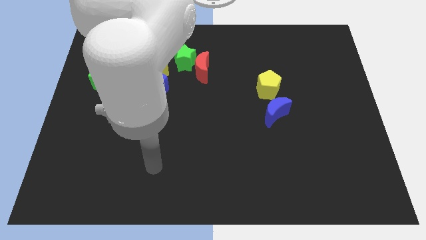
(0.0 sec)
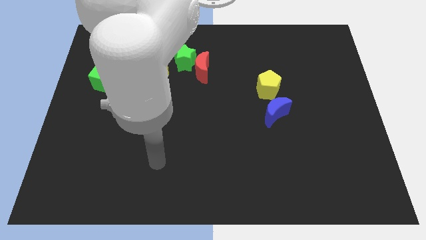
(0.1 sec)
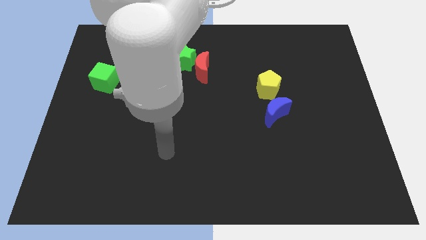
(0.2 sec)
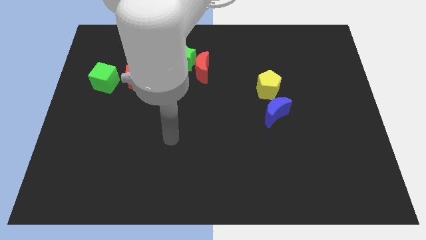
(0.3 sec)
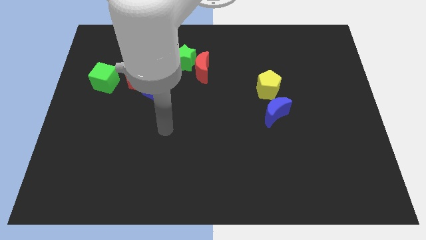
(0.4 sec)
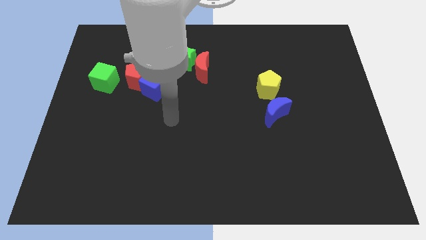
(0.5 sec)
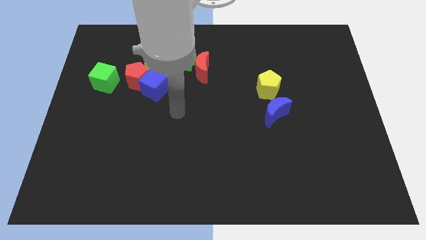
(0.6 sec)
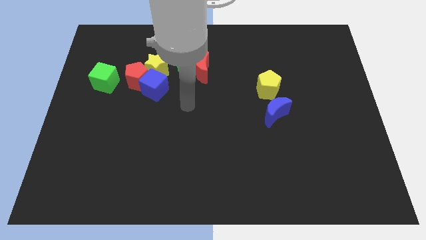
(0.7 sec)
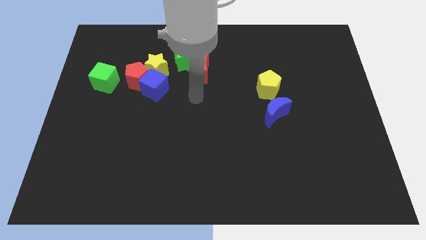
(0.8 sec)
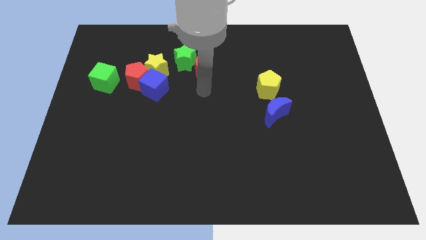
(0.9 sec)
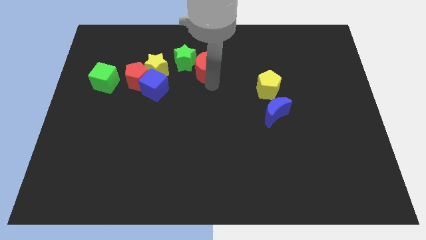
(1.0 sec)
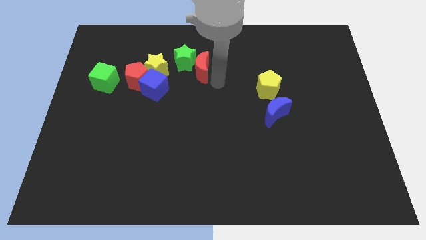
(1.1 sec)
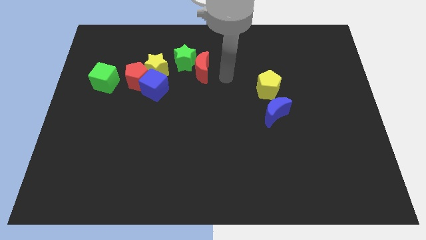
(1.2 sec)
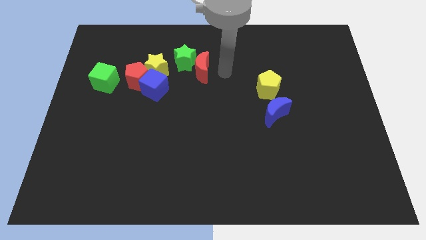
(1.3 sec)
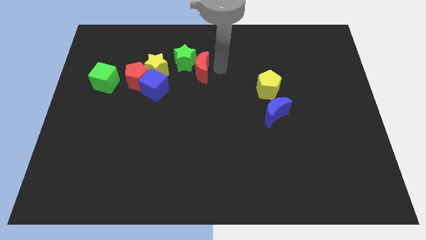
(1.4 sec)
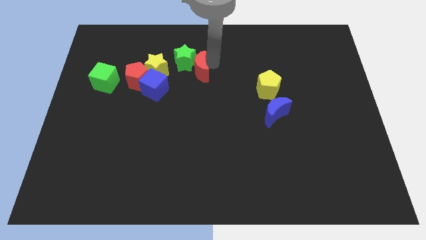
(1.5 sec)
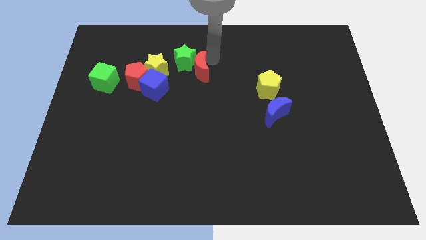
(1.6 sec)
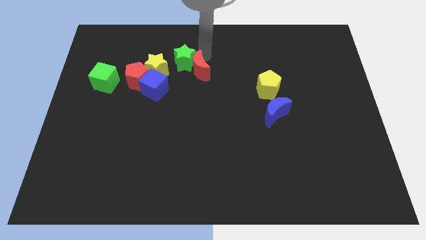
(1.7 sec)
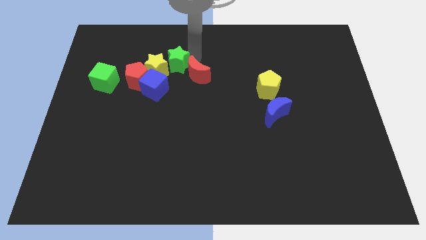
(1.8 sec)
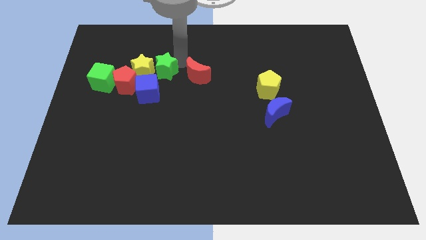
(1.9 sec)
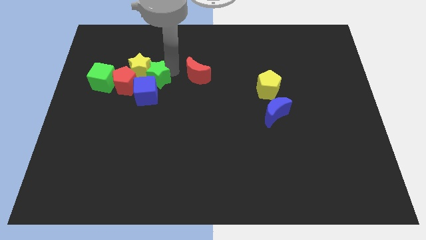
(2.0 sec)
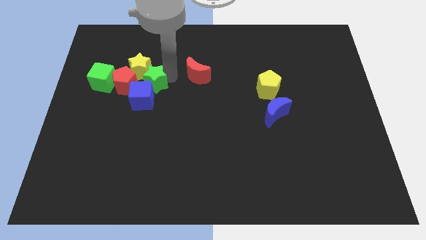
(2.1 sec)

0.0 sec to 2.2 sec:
separate the red moon from the green star

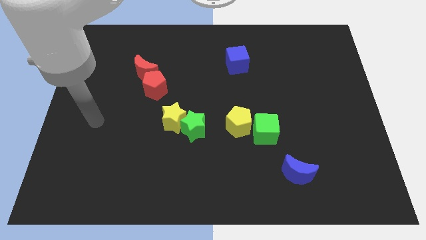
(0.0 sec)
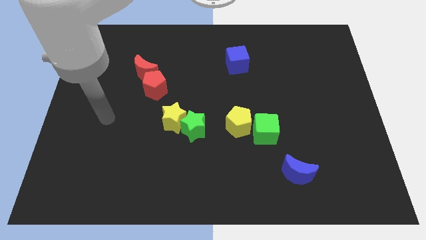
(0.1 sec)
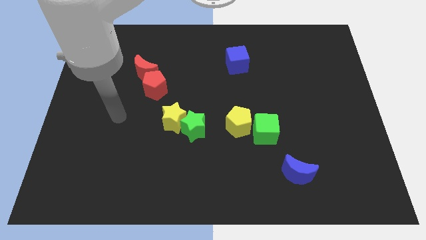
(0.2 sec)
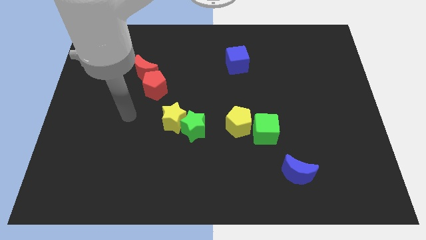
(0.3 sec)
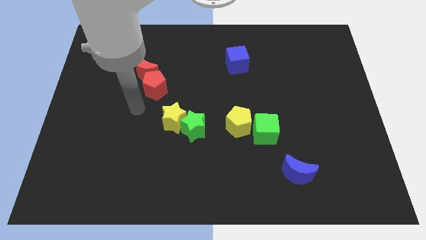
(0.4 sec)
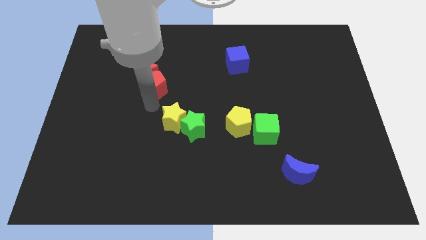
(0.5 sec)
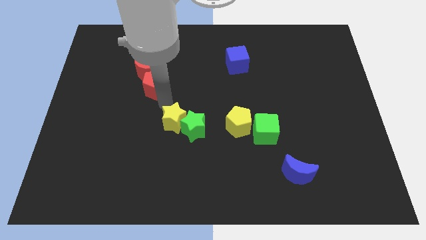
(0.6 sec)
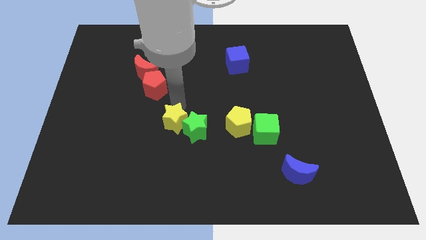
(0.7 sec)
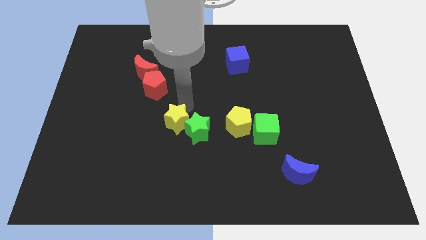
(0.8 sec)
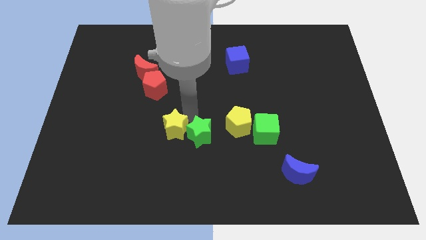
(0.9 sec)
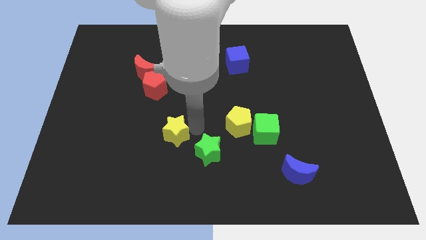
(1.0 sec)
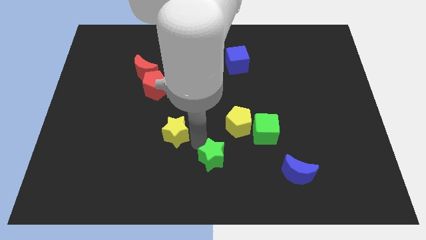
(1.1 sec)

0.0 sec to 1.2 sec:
pull the yellow star apart from the green star

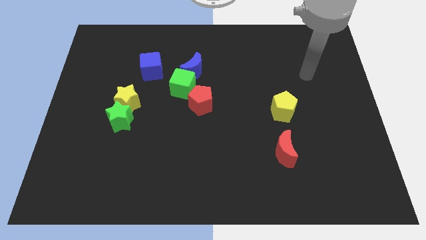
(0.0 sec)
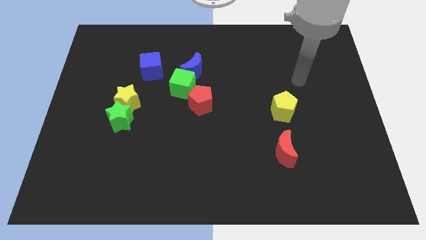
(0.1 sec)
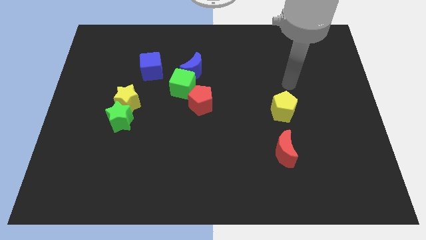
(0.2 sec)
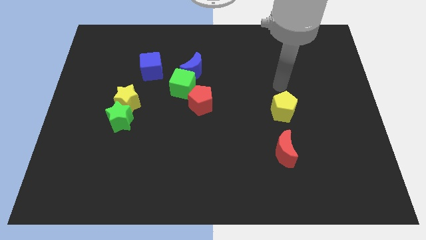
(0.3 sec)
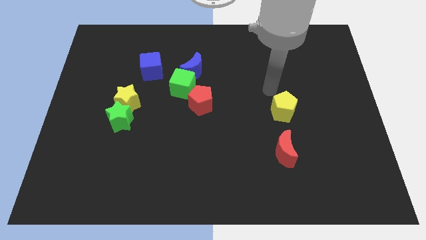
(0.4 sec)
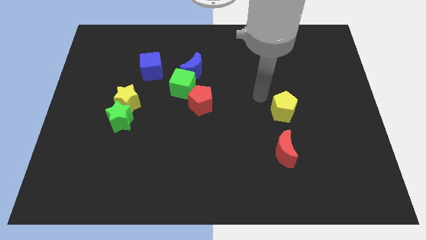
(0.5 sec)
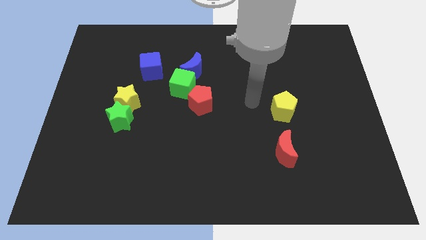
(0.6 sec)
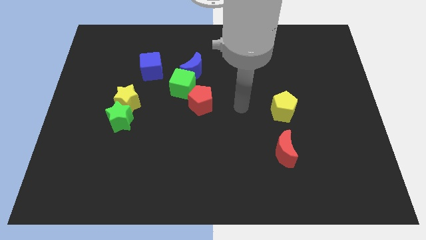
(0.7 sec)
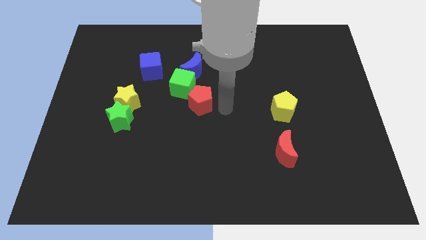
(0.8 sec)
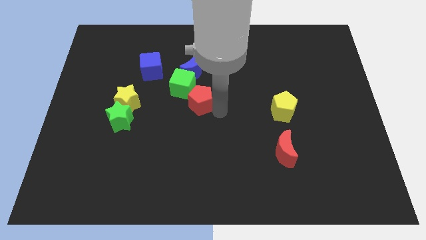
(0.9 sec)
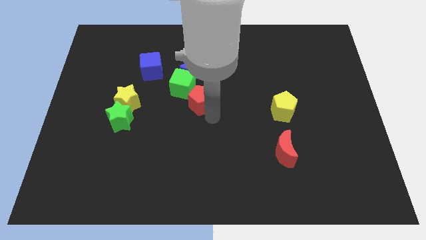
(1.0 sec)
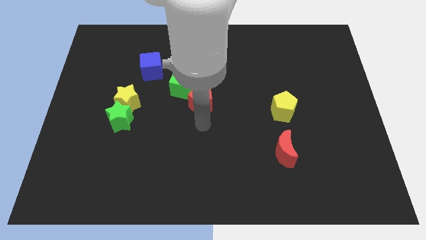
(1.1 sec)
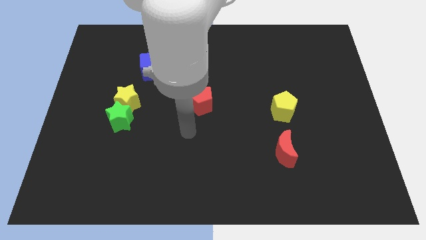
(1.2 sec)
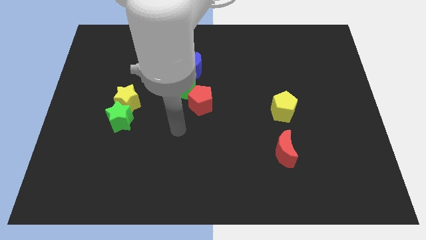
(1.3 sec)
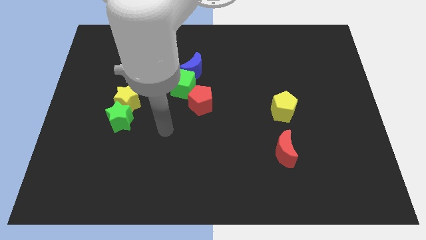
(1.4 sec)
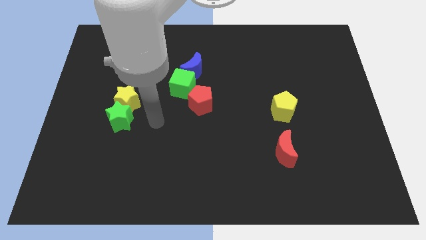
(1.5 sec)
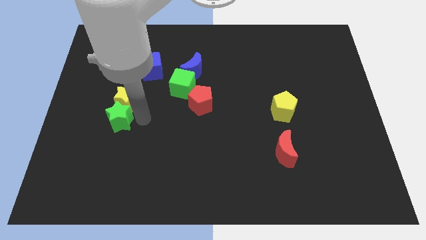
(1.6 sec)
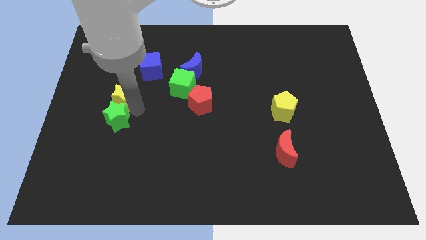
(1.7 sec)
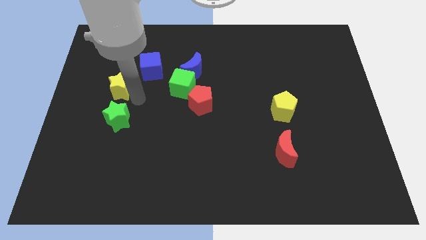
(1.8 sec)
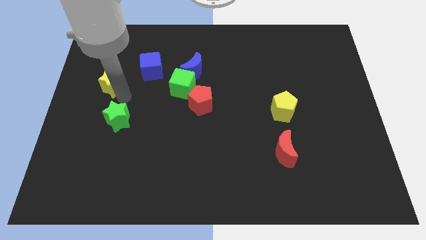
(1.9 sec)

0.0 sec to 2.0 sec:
pull the green star apart from the yellow star

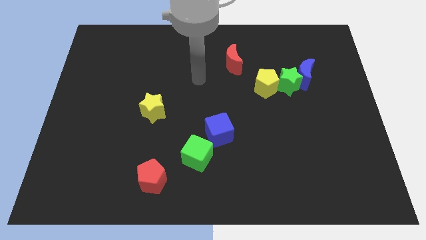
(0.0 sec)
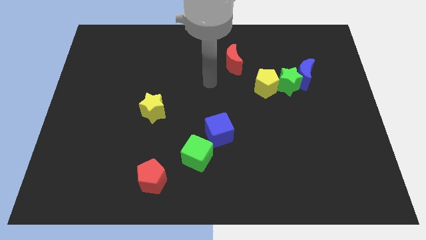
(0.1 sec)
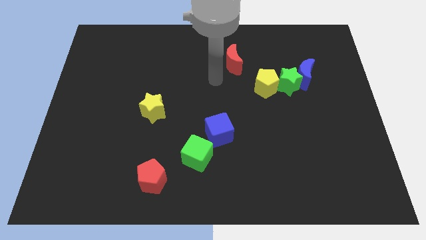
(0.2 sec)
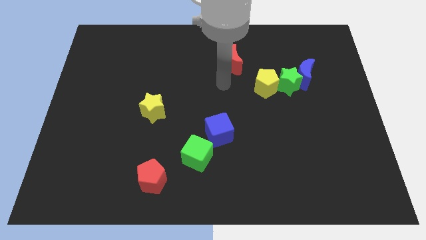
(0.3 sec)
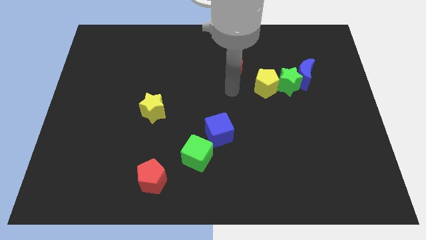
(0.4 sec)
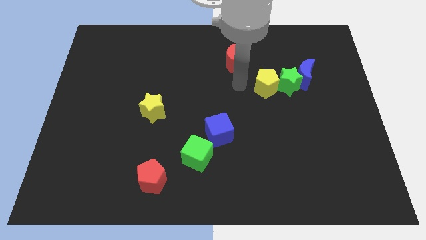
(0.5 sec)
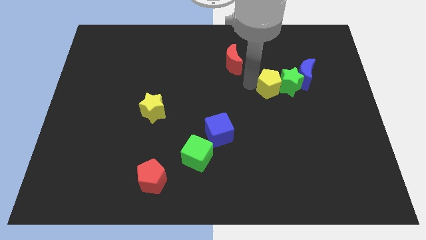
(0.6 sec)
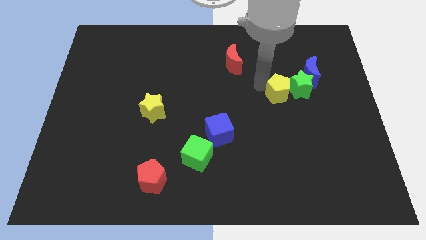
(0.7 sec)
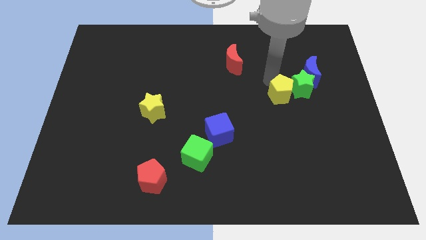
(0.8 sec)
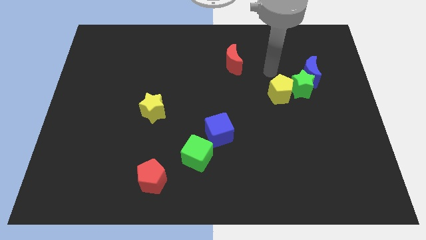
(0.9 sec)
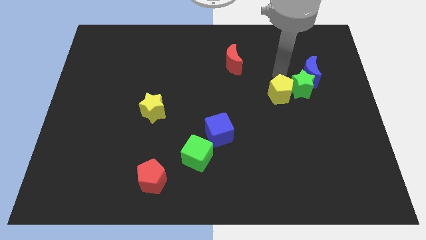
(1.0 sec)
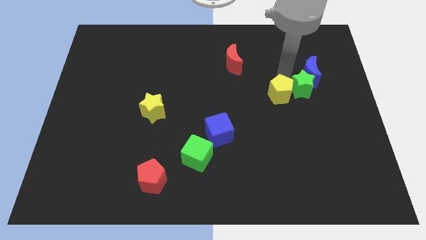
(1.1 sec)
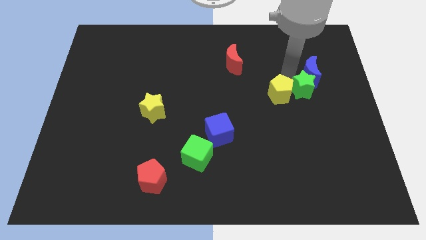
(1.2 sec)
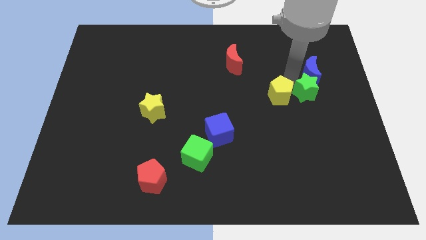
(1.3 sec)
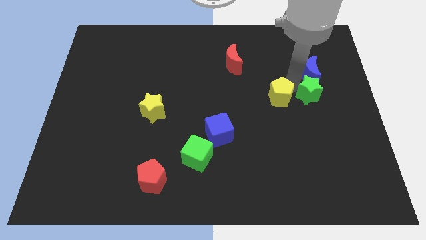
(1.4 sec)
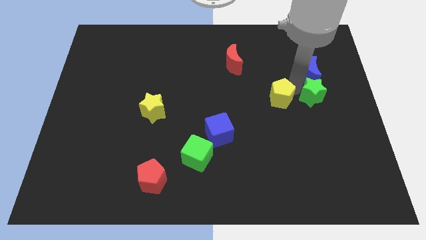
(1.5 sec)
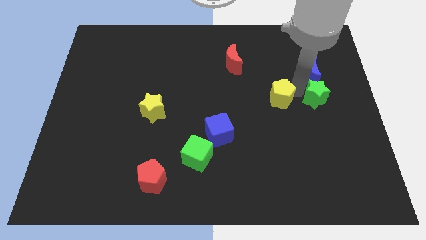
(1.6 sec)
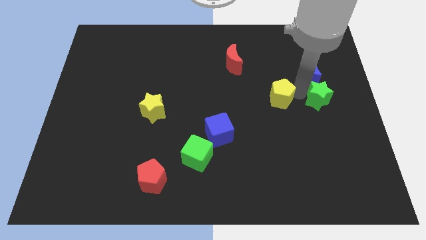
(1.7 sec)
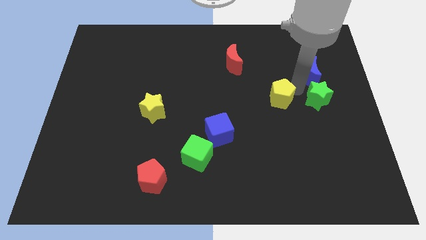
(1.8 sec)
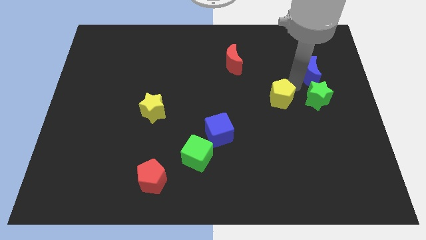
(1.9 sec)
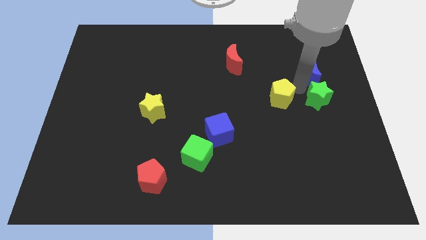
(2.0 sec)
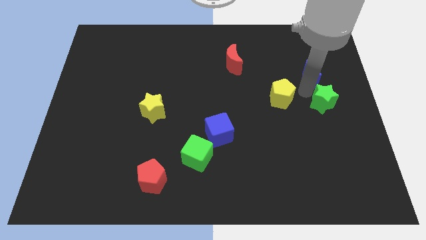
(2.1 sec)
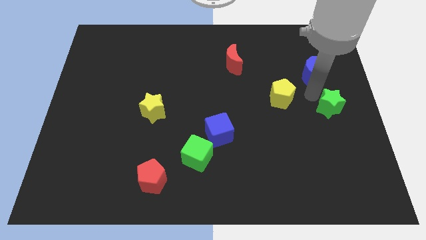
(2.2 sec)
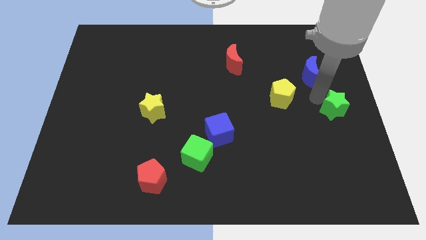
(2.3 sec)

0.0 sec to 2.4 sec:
pull the green star apart from the blue moon and yellow pentagon

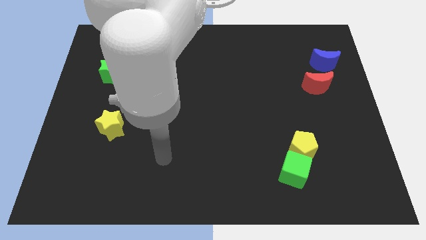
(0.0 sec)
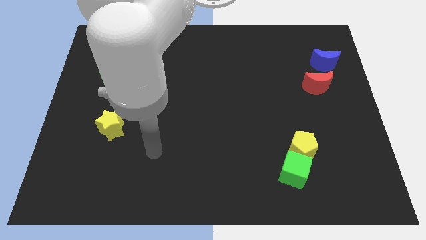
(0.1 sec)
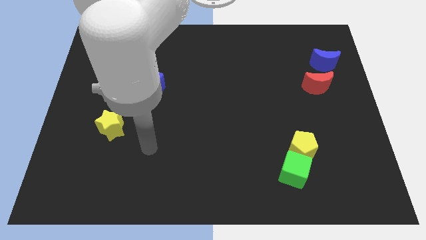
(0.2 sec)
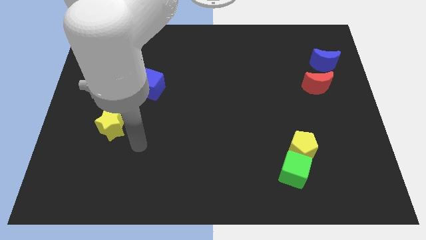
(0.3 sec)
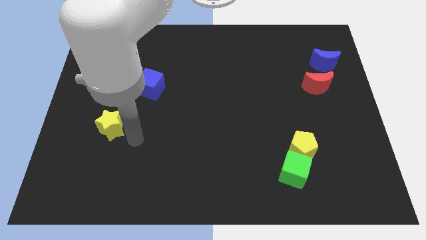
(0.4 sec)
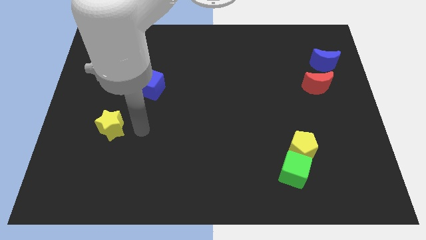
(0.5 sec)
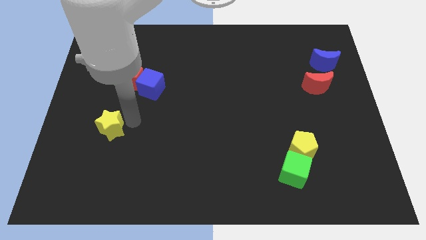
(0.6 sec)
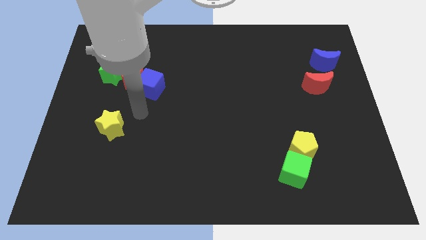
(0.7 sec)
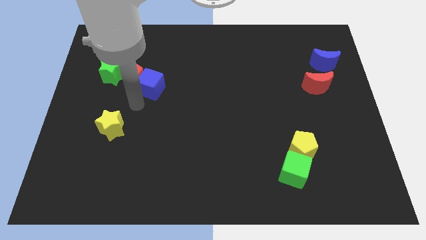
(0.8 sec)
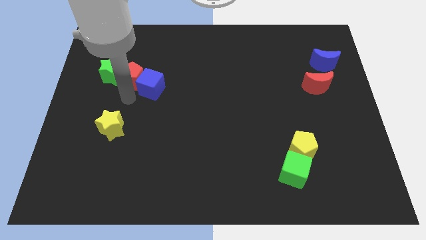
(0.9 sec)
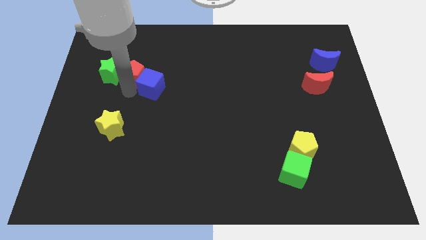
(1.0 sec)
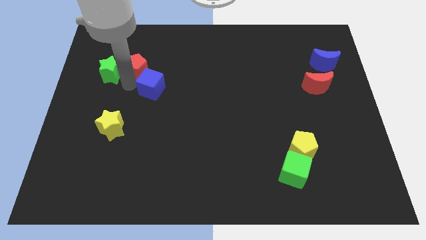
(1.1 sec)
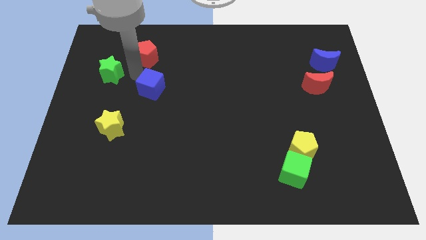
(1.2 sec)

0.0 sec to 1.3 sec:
separate the blue cube from the red pentagon

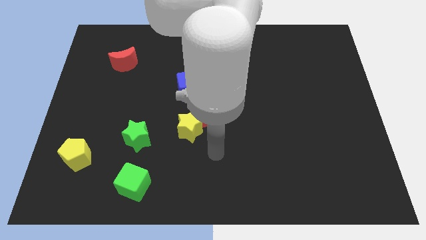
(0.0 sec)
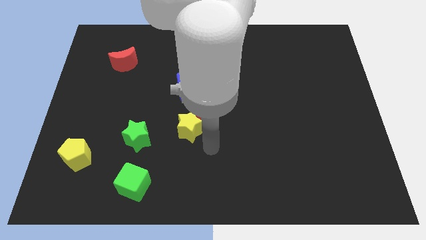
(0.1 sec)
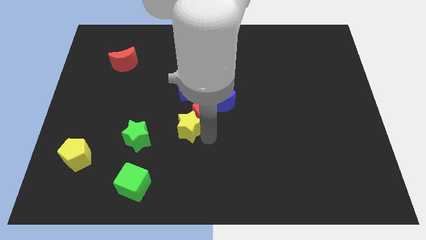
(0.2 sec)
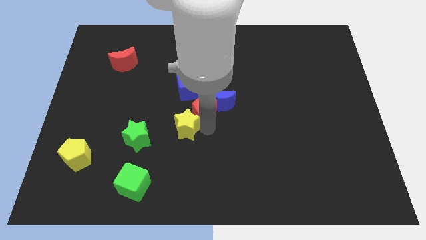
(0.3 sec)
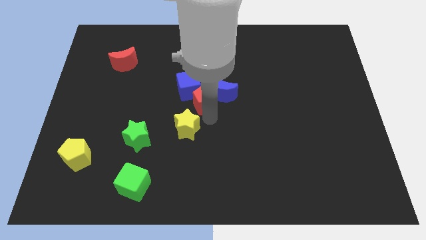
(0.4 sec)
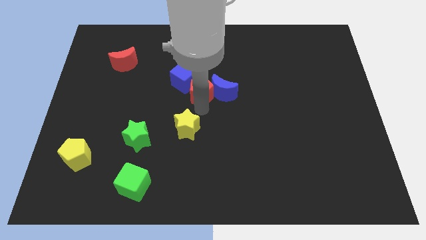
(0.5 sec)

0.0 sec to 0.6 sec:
separate the yellow star from the red pentagon
